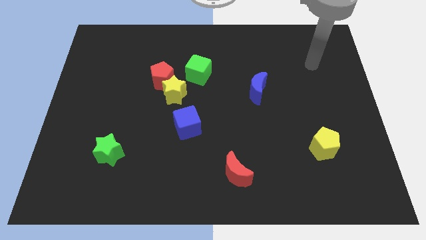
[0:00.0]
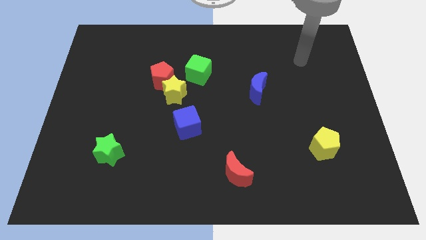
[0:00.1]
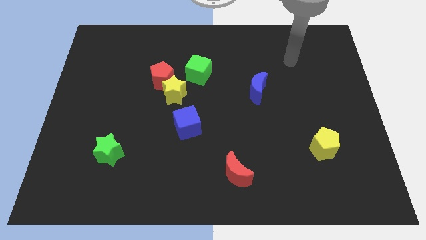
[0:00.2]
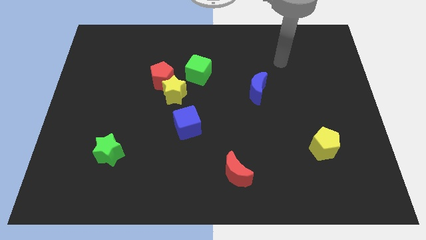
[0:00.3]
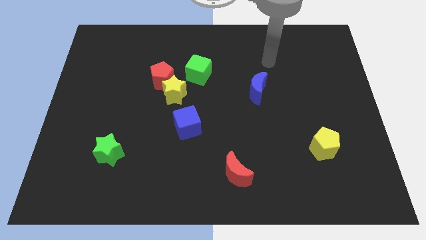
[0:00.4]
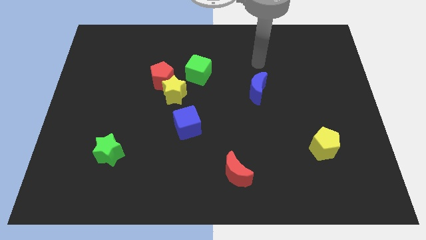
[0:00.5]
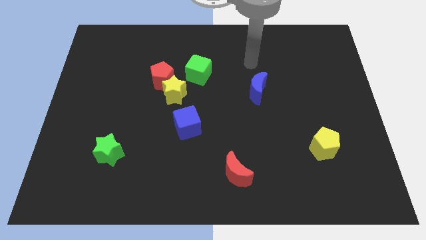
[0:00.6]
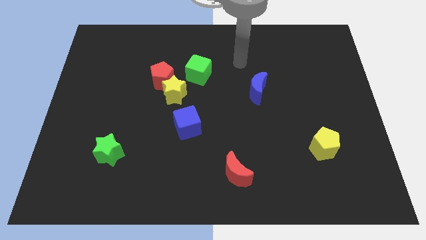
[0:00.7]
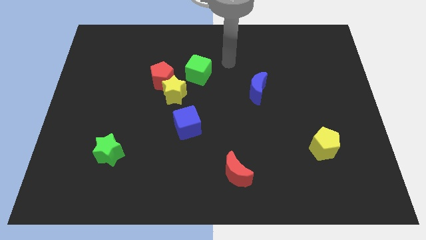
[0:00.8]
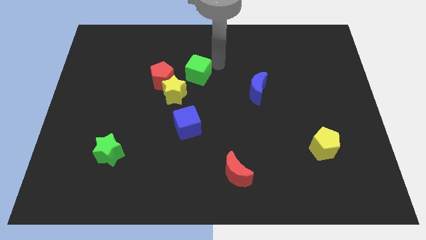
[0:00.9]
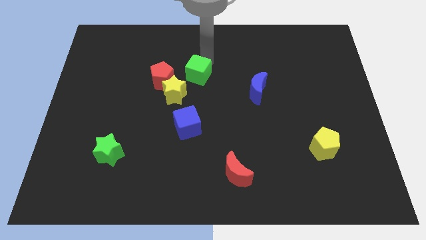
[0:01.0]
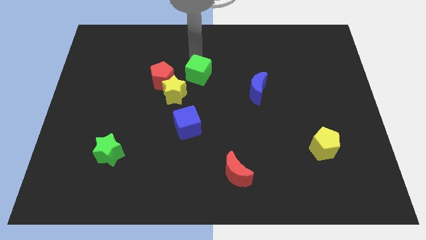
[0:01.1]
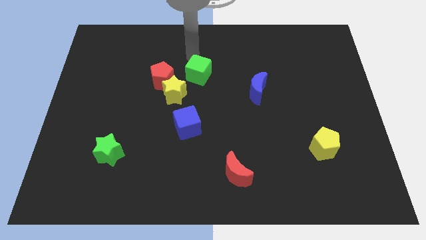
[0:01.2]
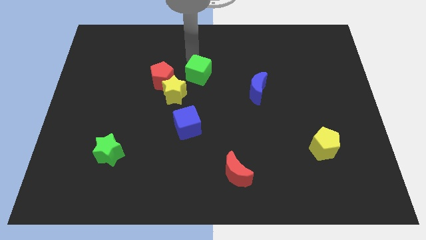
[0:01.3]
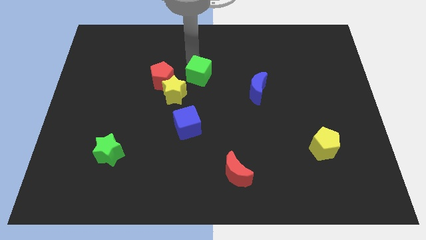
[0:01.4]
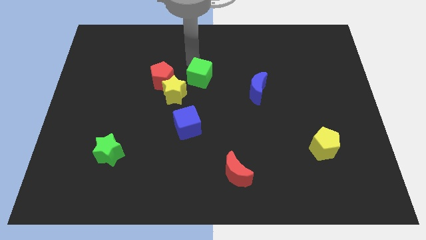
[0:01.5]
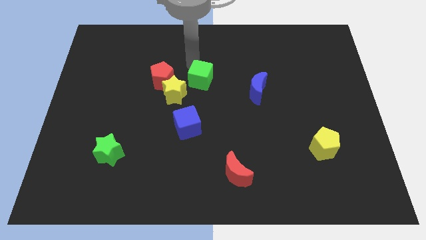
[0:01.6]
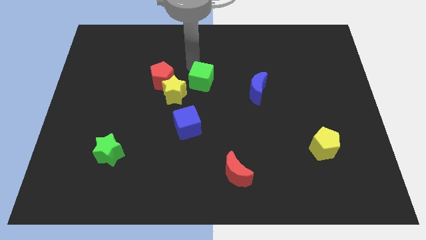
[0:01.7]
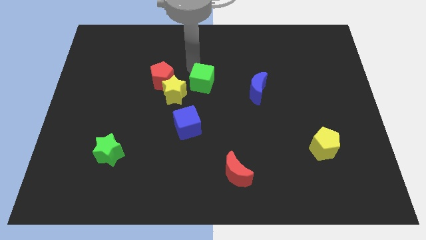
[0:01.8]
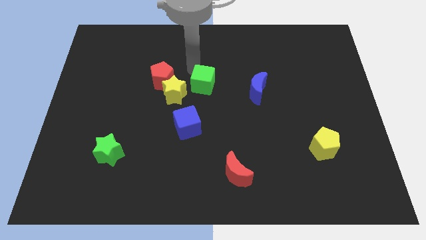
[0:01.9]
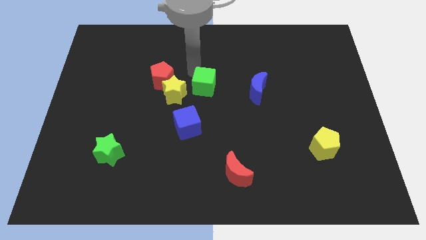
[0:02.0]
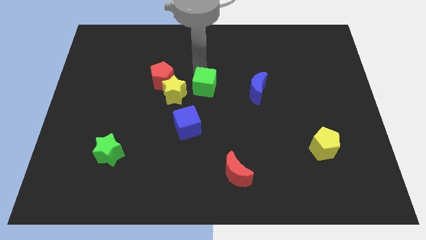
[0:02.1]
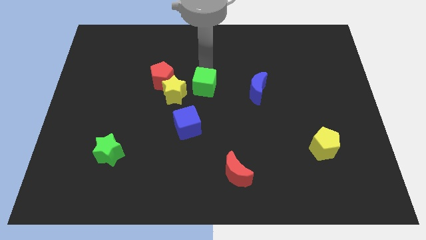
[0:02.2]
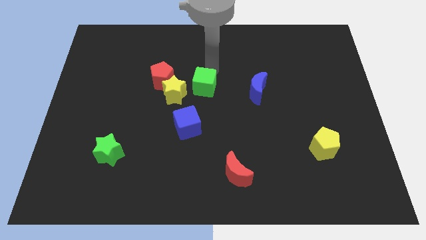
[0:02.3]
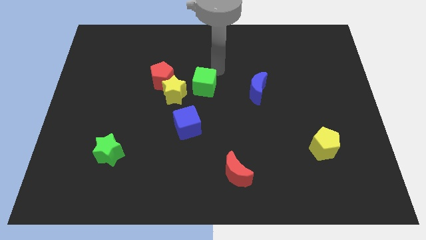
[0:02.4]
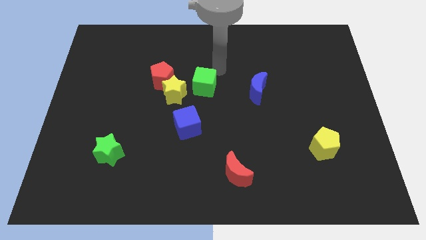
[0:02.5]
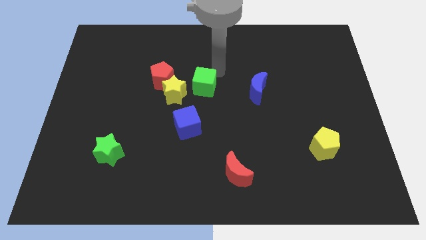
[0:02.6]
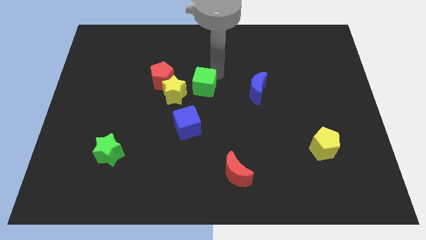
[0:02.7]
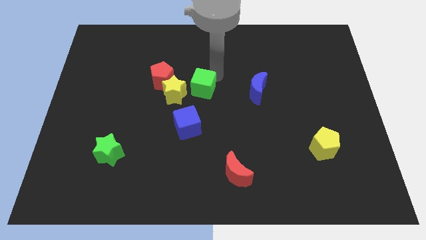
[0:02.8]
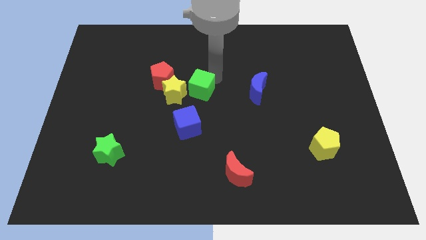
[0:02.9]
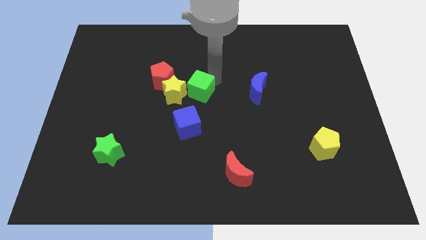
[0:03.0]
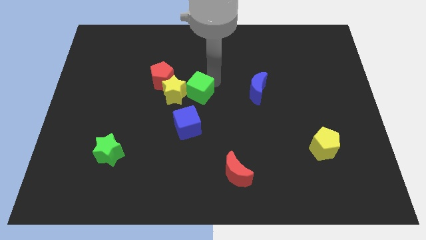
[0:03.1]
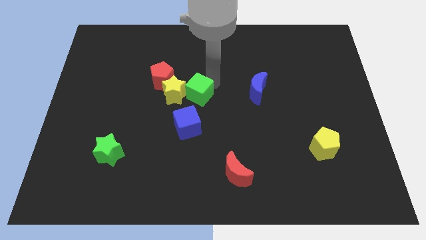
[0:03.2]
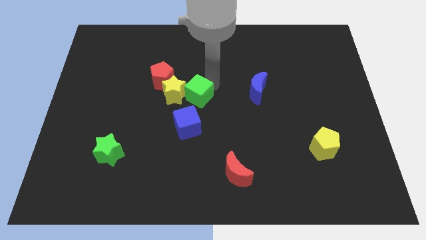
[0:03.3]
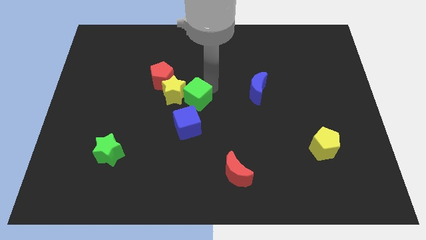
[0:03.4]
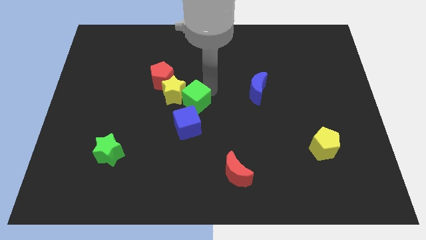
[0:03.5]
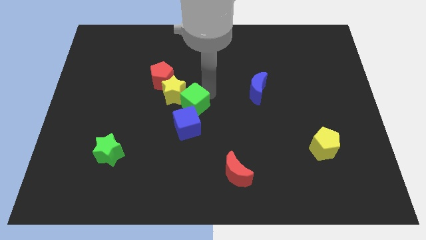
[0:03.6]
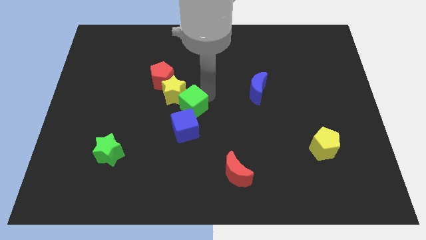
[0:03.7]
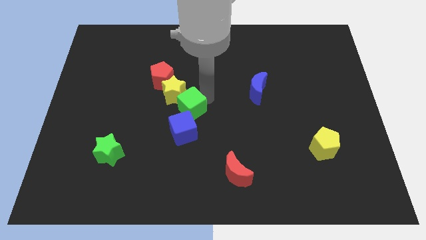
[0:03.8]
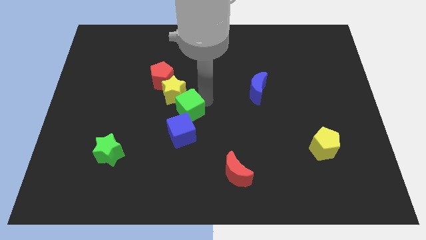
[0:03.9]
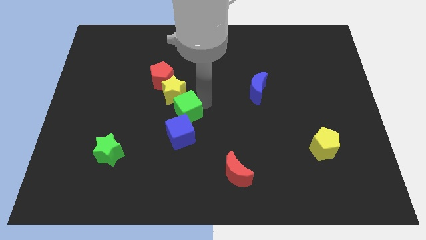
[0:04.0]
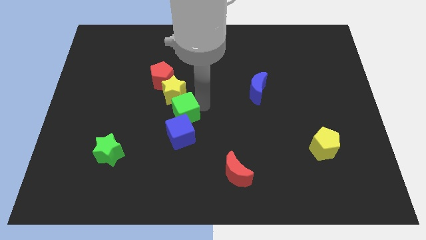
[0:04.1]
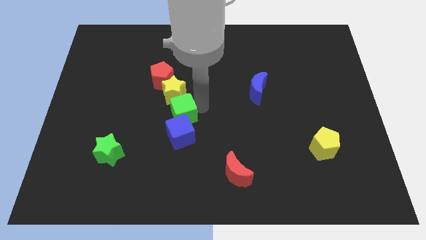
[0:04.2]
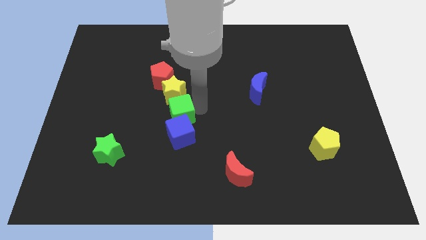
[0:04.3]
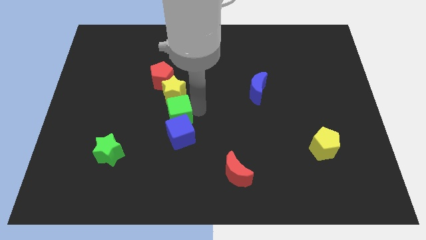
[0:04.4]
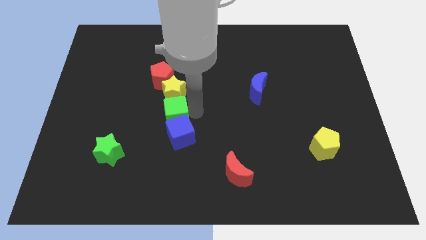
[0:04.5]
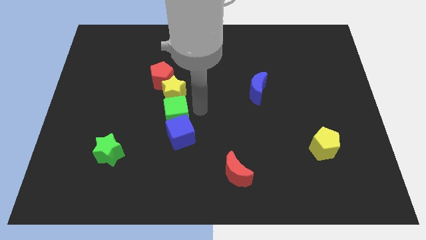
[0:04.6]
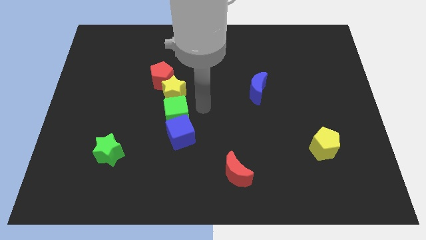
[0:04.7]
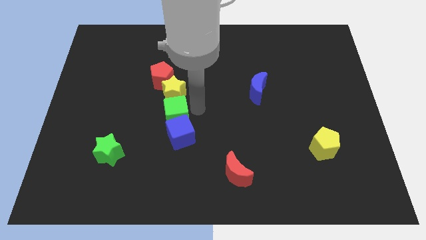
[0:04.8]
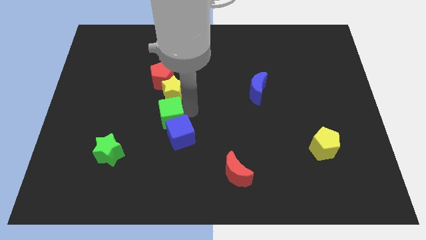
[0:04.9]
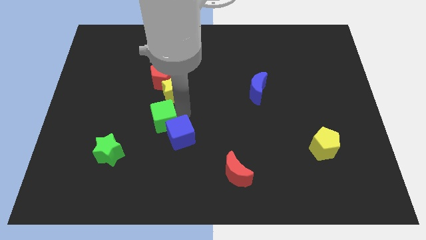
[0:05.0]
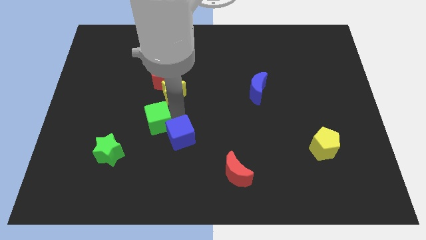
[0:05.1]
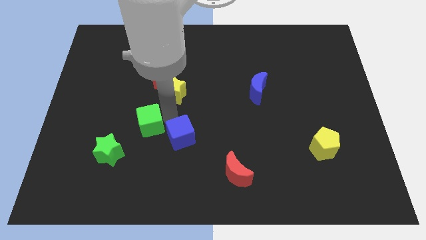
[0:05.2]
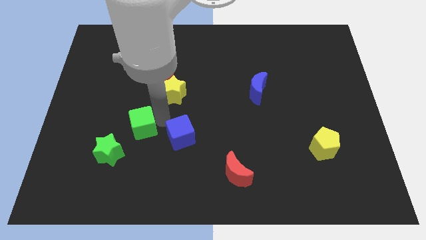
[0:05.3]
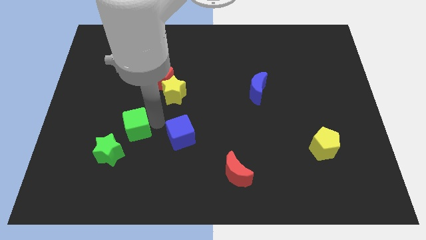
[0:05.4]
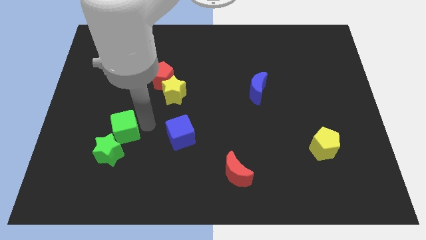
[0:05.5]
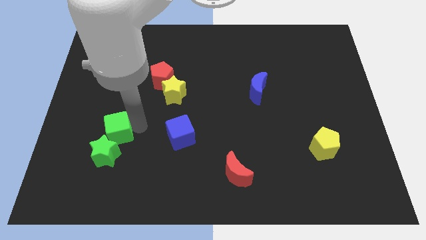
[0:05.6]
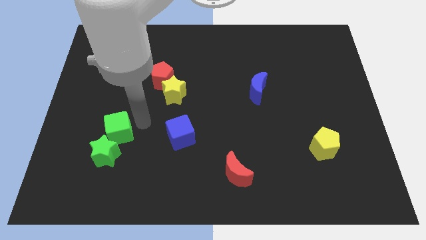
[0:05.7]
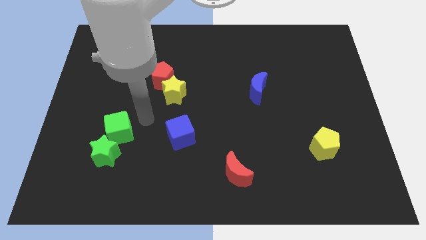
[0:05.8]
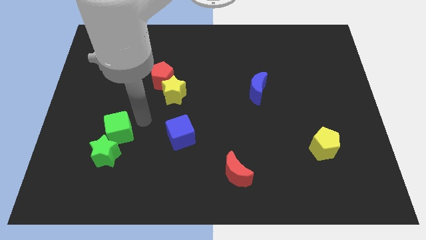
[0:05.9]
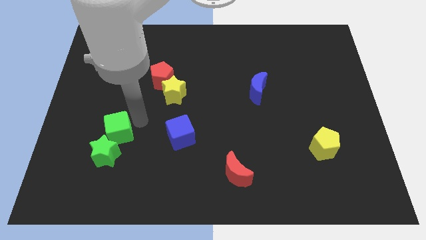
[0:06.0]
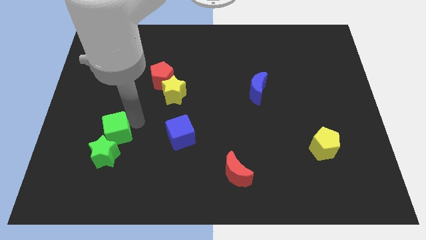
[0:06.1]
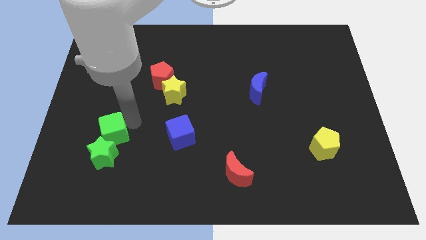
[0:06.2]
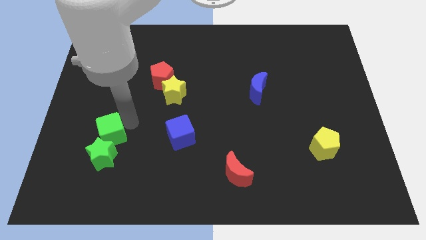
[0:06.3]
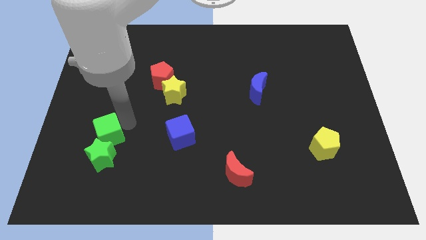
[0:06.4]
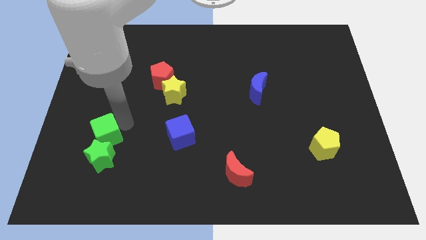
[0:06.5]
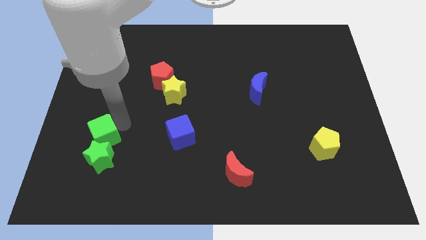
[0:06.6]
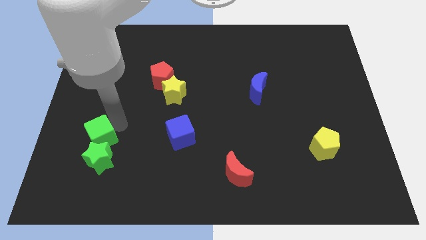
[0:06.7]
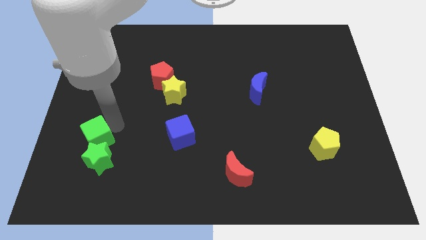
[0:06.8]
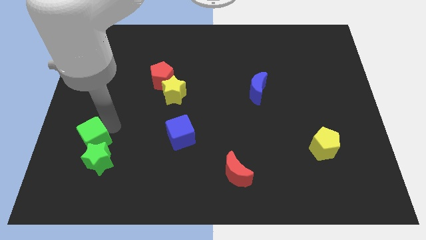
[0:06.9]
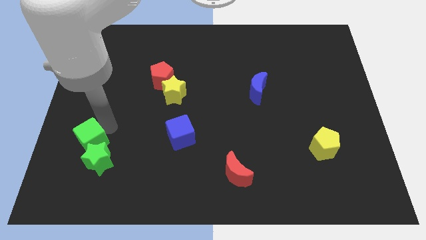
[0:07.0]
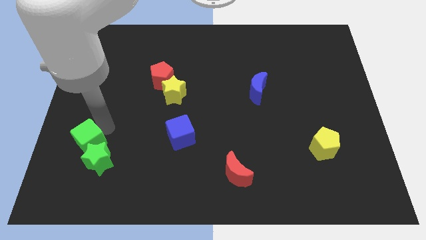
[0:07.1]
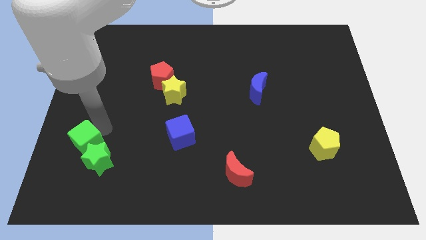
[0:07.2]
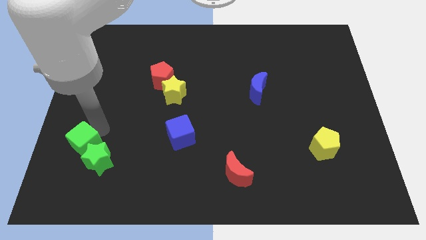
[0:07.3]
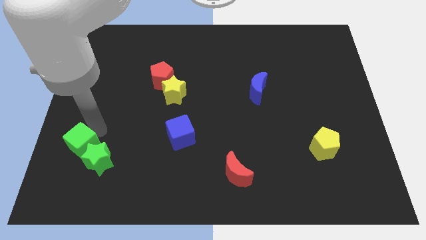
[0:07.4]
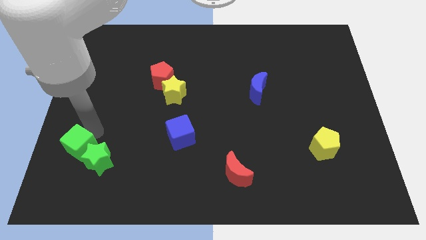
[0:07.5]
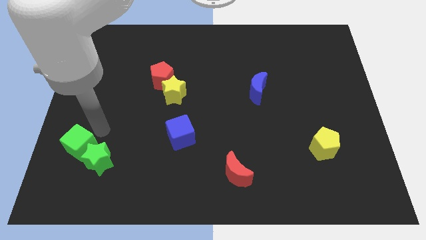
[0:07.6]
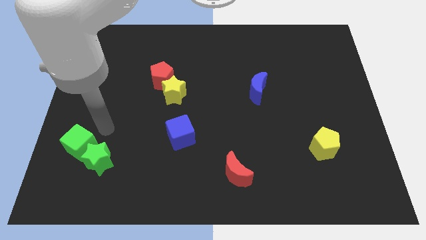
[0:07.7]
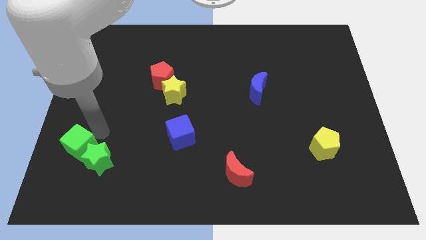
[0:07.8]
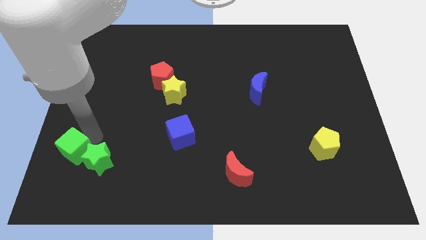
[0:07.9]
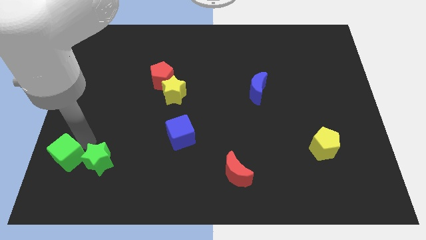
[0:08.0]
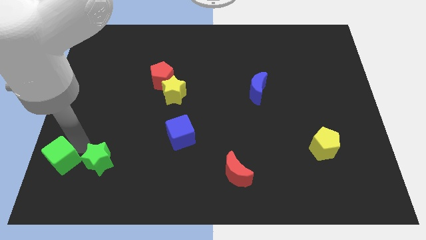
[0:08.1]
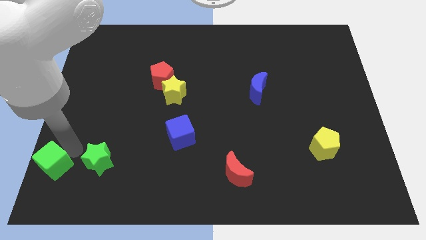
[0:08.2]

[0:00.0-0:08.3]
move the green cube to the bottom left corner
